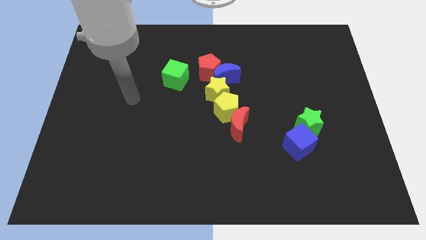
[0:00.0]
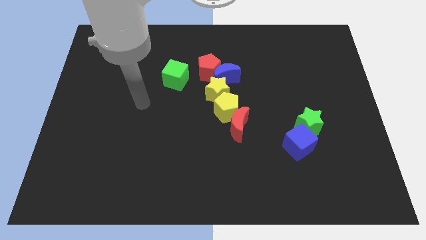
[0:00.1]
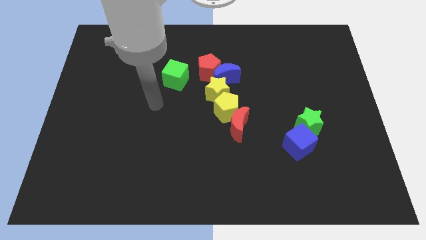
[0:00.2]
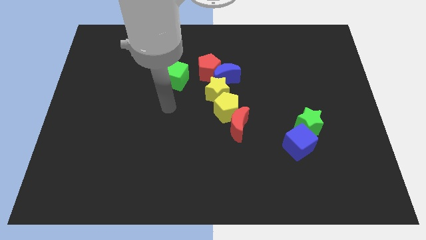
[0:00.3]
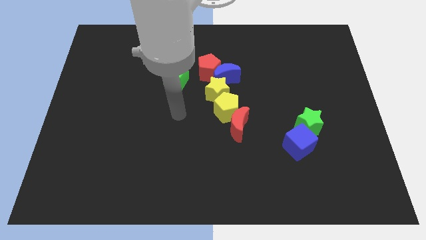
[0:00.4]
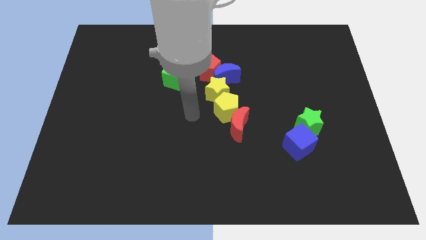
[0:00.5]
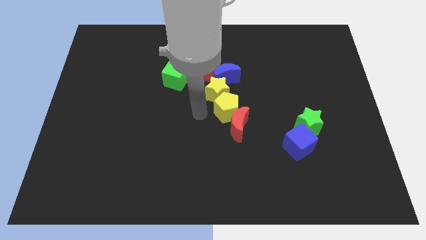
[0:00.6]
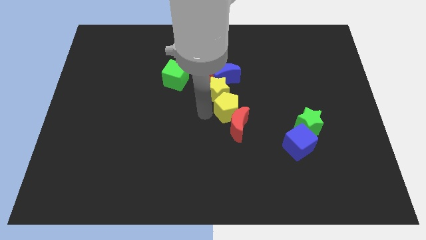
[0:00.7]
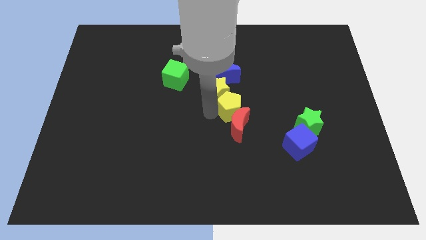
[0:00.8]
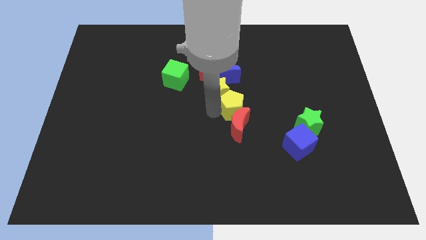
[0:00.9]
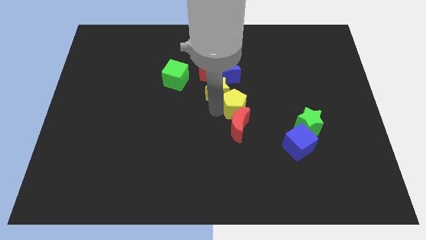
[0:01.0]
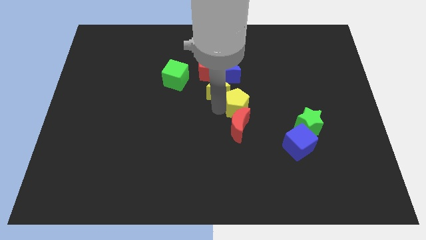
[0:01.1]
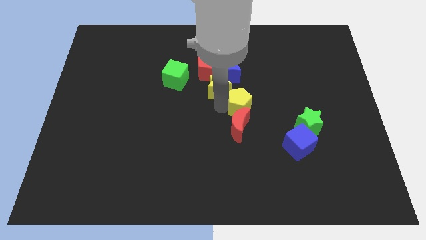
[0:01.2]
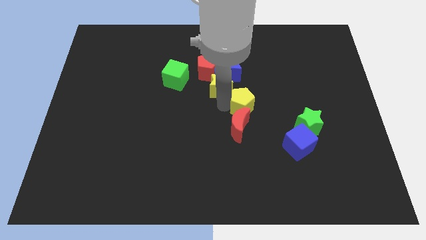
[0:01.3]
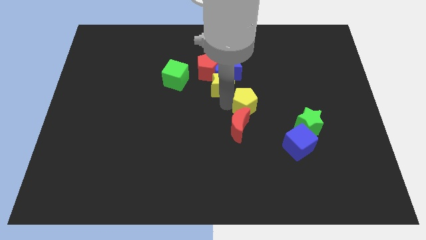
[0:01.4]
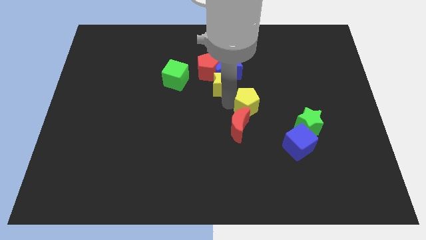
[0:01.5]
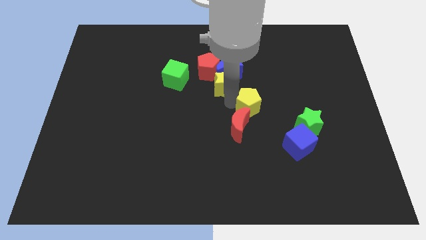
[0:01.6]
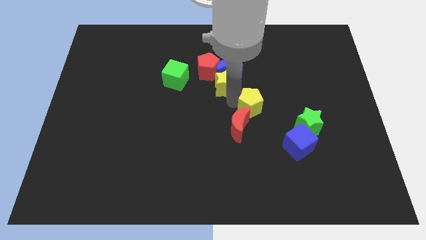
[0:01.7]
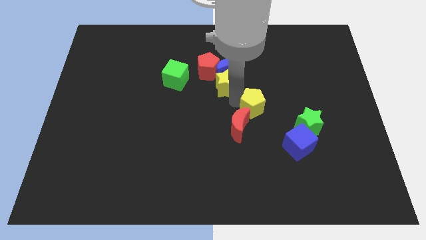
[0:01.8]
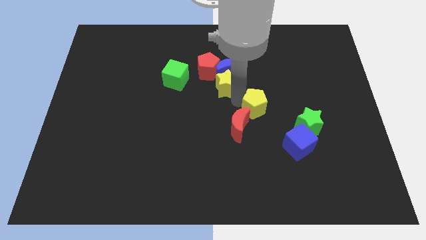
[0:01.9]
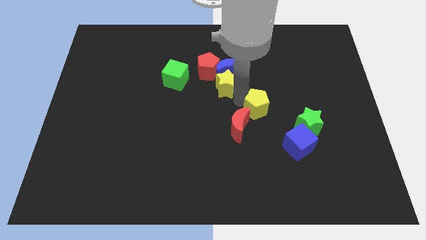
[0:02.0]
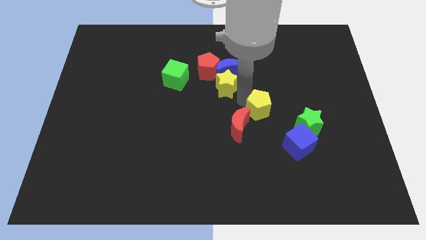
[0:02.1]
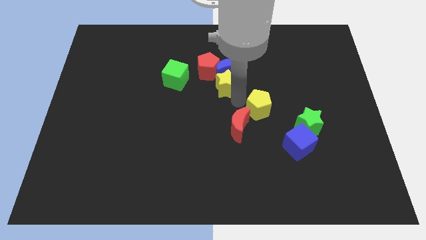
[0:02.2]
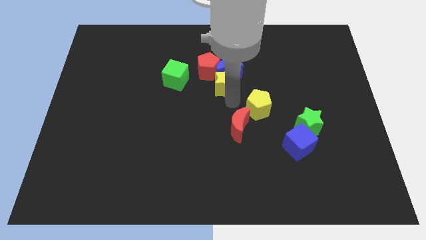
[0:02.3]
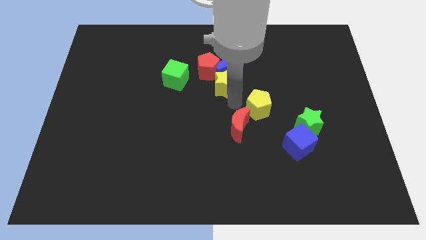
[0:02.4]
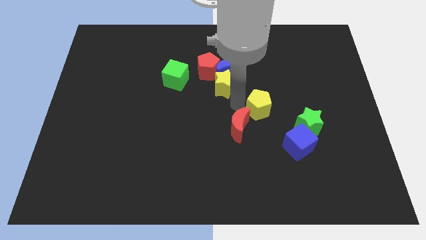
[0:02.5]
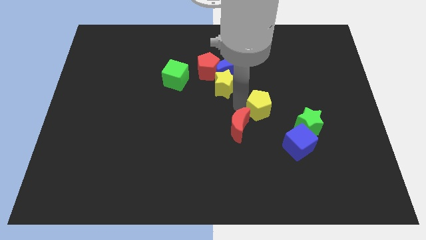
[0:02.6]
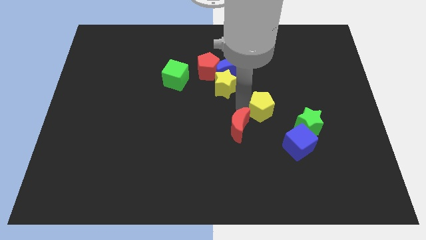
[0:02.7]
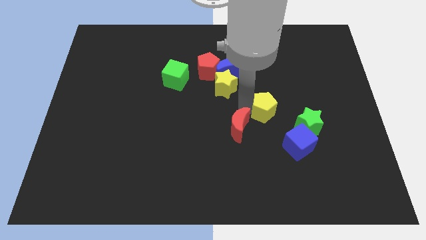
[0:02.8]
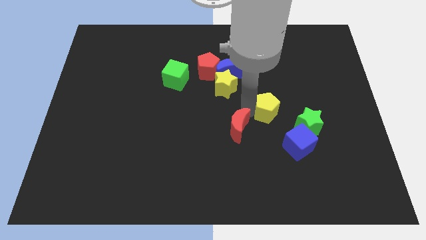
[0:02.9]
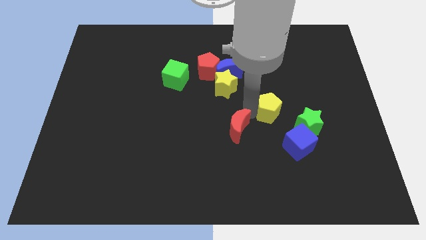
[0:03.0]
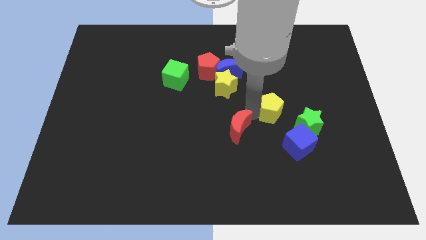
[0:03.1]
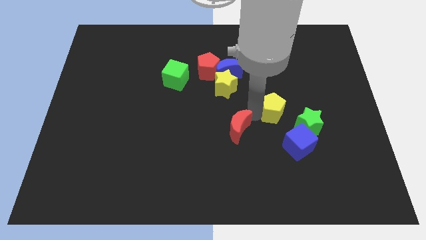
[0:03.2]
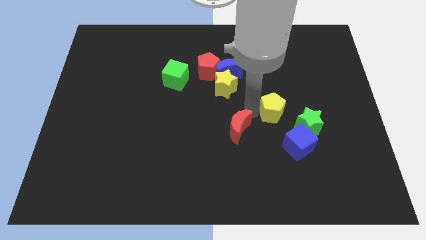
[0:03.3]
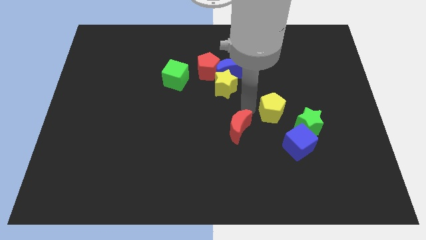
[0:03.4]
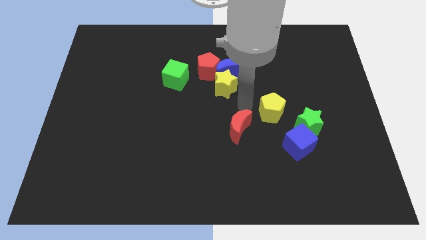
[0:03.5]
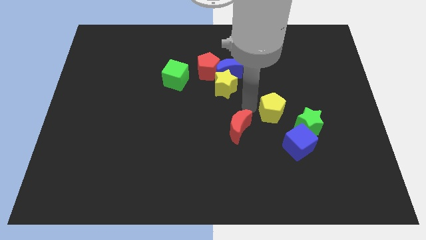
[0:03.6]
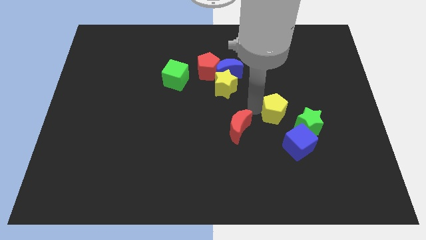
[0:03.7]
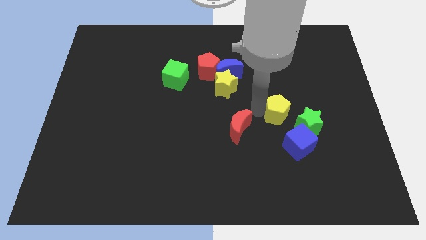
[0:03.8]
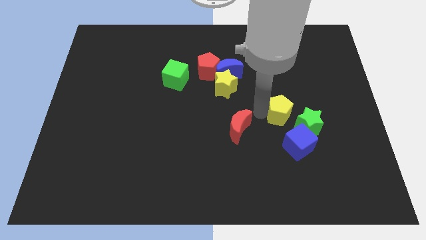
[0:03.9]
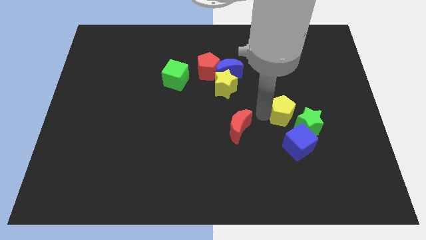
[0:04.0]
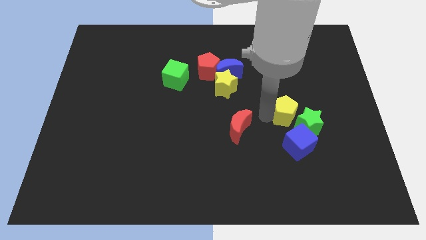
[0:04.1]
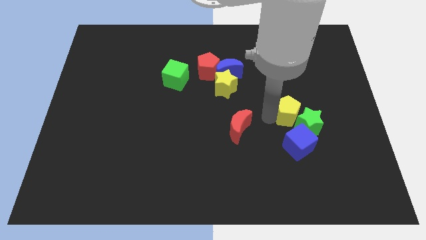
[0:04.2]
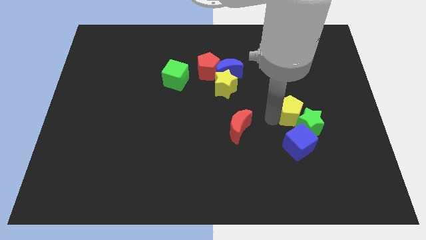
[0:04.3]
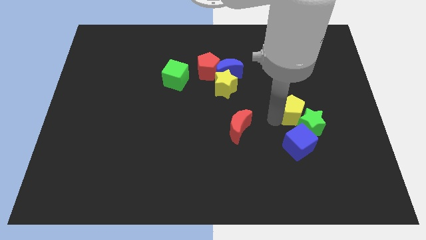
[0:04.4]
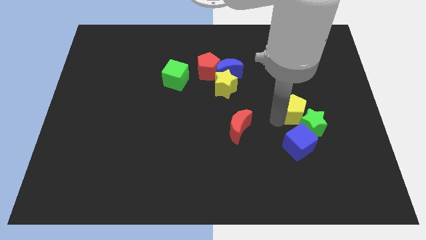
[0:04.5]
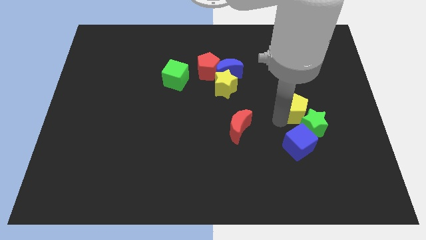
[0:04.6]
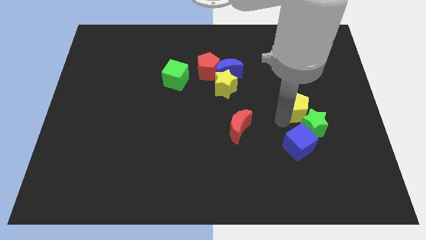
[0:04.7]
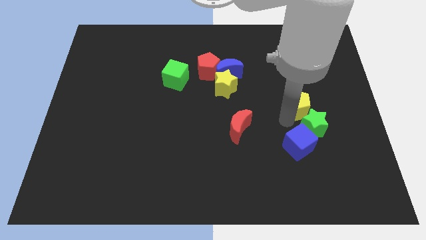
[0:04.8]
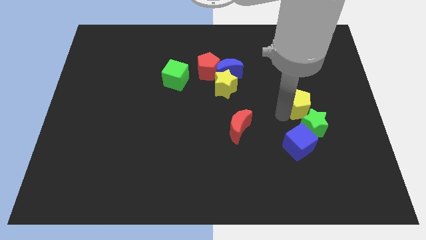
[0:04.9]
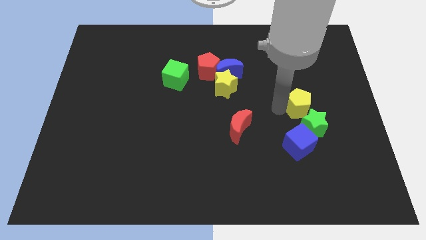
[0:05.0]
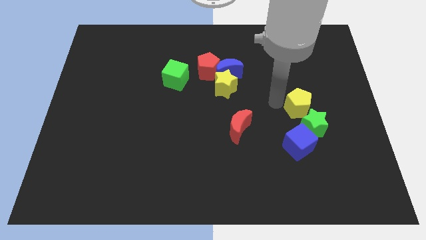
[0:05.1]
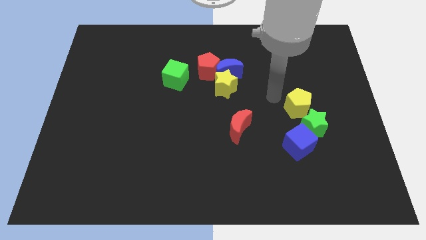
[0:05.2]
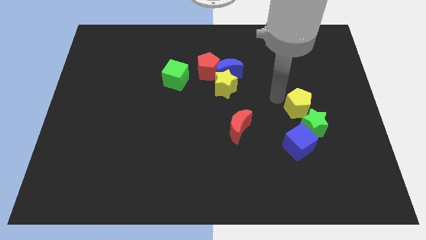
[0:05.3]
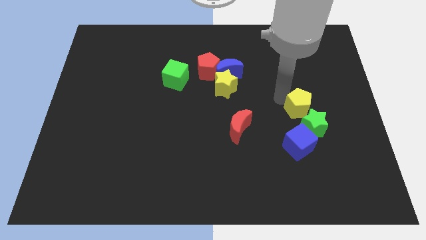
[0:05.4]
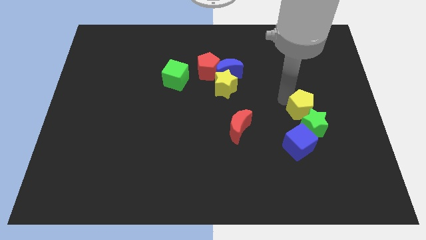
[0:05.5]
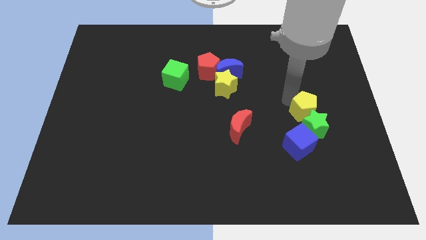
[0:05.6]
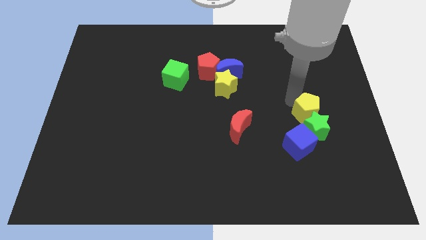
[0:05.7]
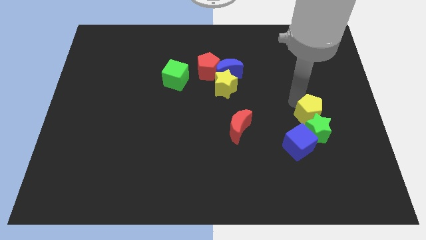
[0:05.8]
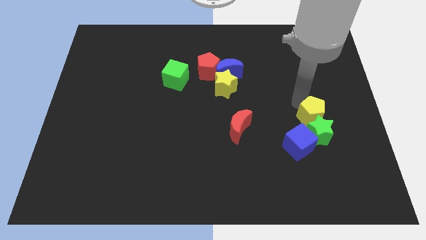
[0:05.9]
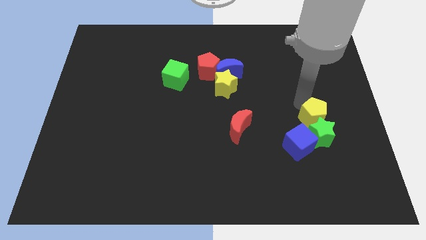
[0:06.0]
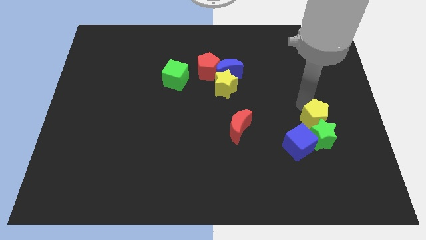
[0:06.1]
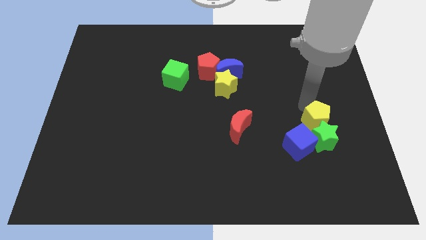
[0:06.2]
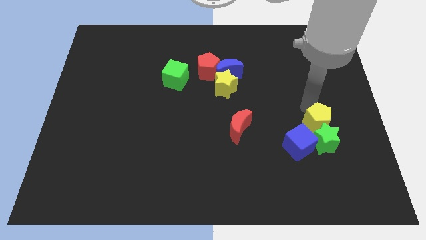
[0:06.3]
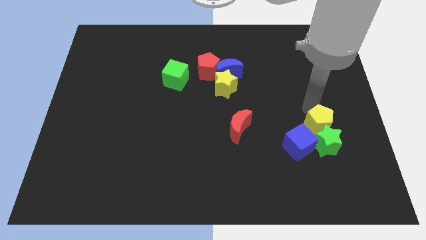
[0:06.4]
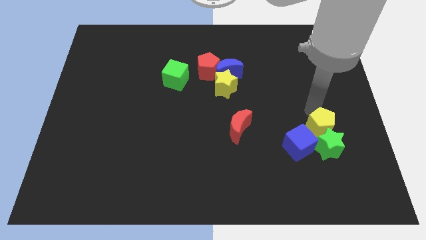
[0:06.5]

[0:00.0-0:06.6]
slide the yellow pentagon to the right of the blue cube

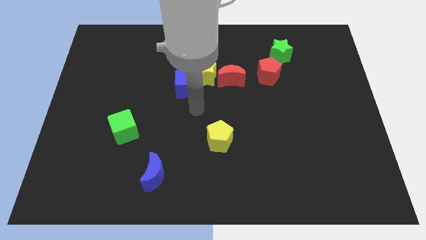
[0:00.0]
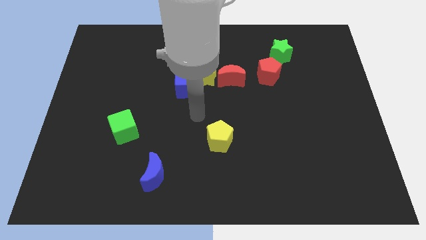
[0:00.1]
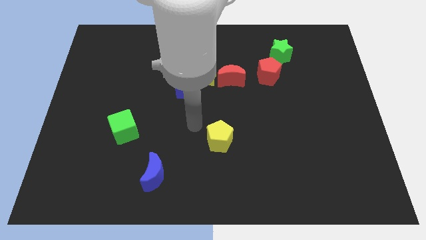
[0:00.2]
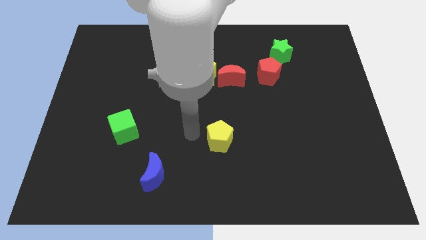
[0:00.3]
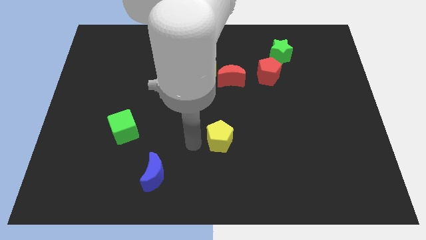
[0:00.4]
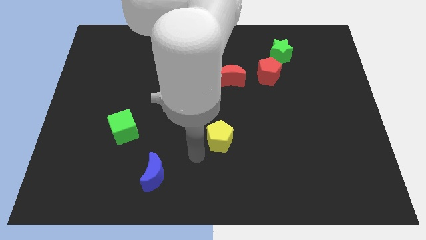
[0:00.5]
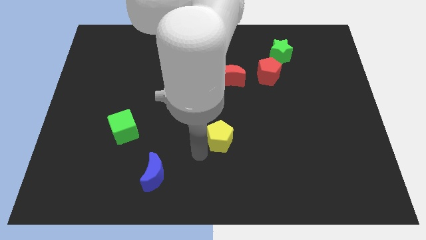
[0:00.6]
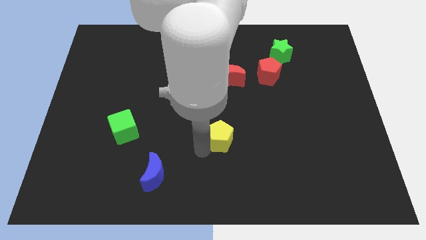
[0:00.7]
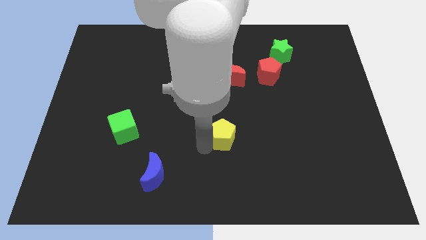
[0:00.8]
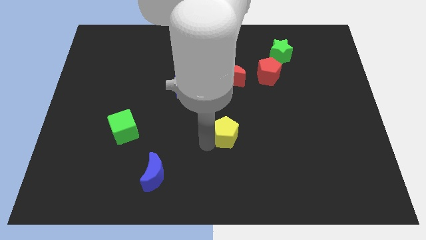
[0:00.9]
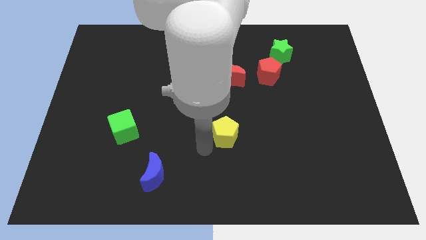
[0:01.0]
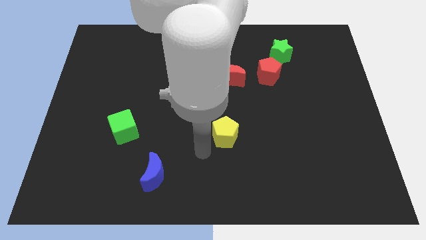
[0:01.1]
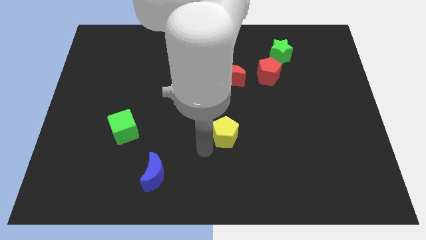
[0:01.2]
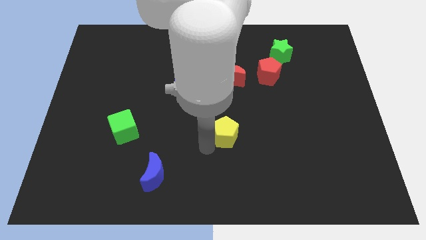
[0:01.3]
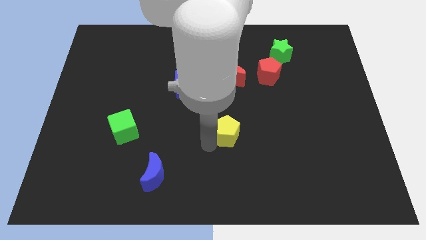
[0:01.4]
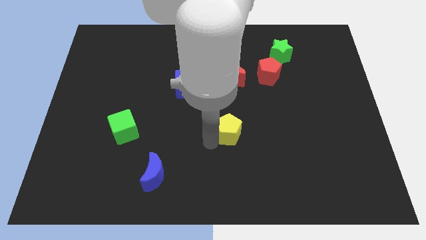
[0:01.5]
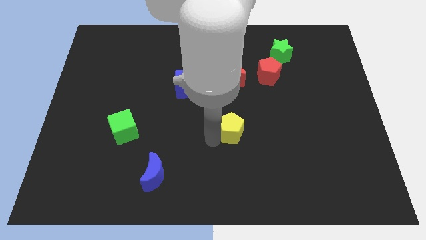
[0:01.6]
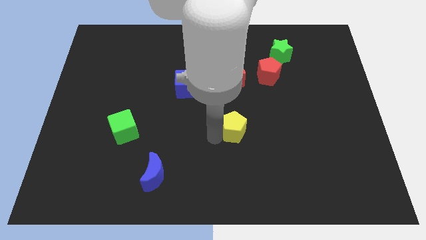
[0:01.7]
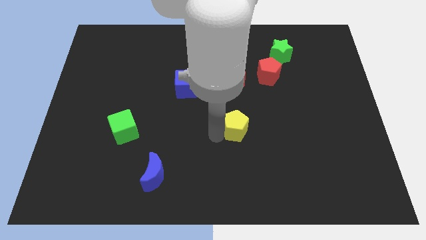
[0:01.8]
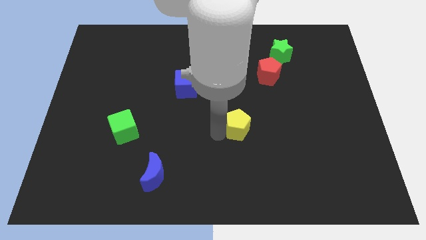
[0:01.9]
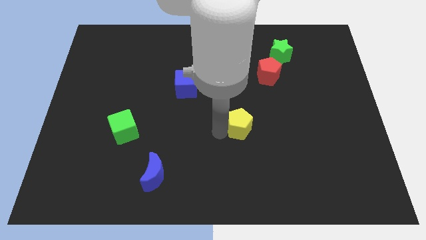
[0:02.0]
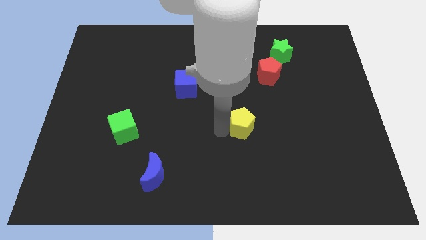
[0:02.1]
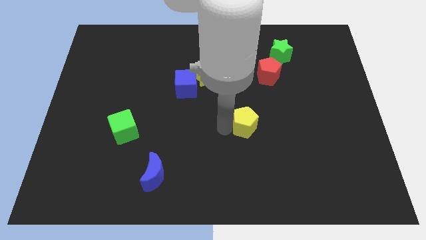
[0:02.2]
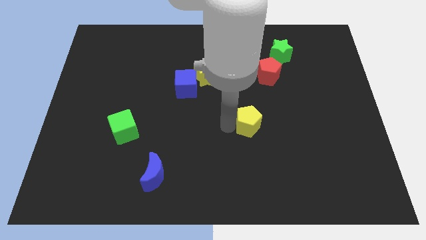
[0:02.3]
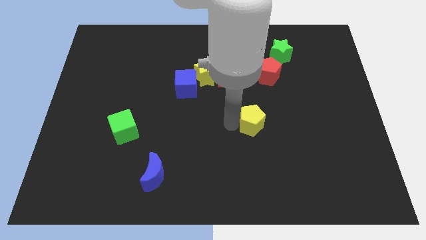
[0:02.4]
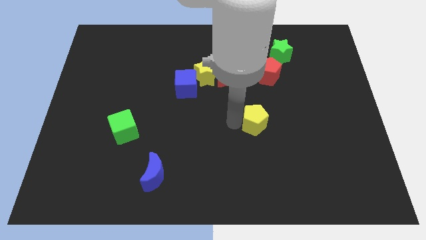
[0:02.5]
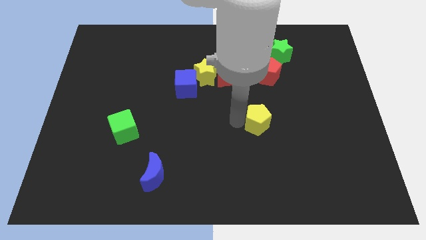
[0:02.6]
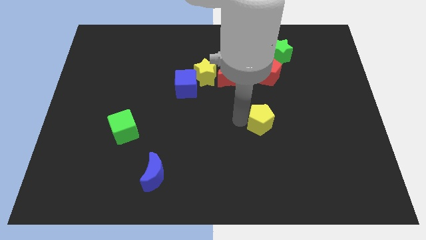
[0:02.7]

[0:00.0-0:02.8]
put the yellow pentagon to the bottom side of the red pentagon
